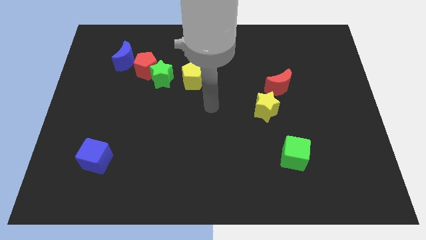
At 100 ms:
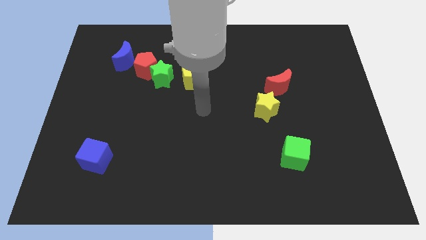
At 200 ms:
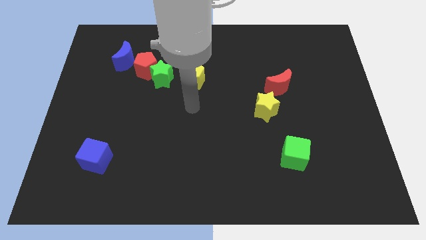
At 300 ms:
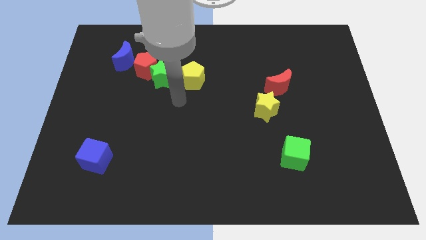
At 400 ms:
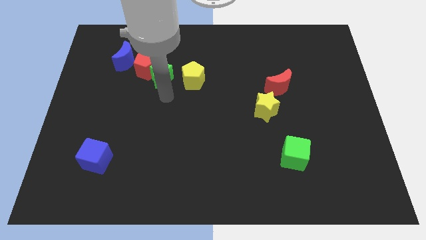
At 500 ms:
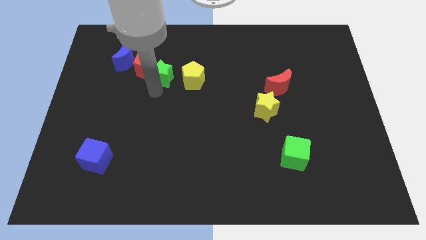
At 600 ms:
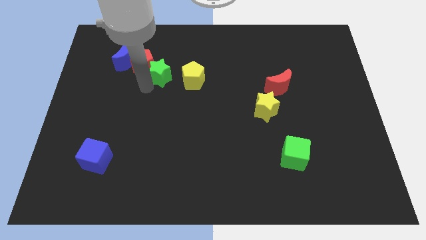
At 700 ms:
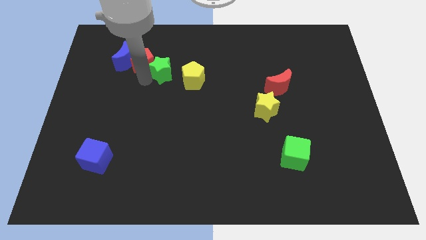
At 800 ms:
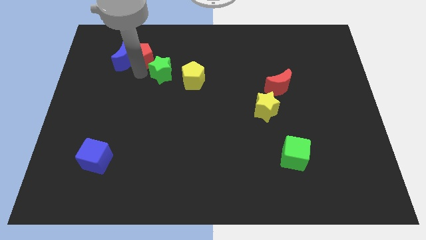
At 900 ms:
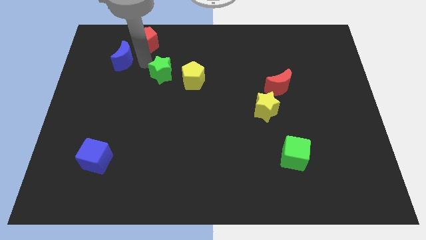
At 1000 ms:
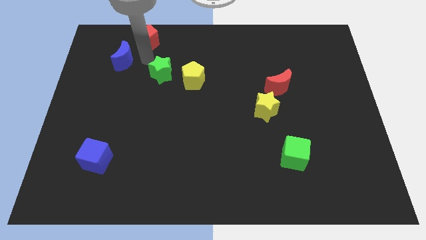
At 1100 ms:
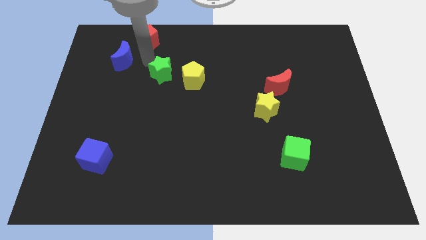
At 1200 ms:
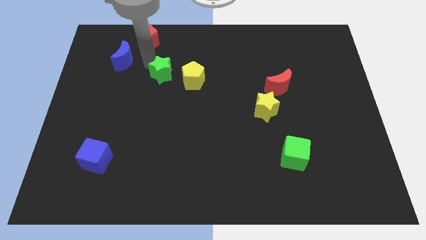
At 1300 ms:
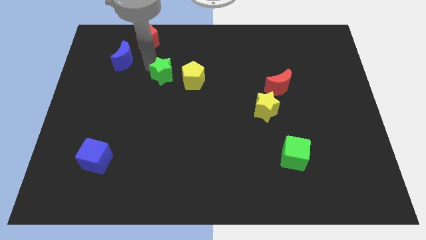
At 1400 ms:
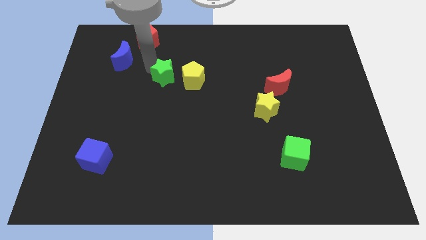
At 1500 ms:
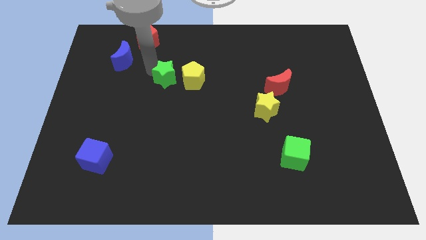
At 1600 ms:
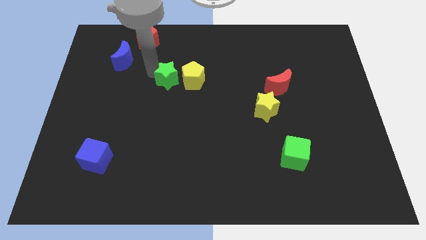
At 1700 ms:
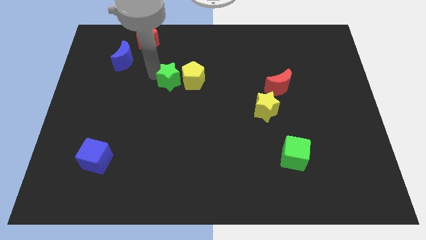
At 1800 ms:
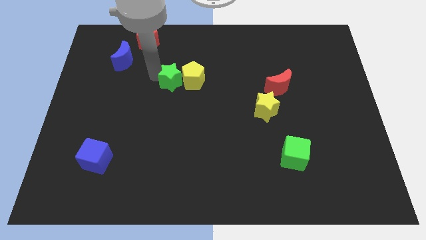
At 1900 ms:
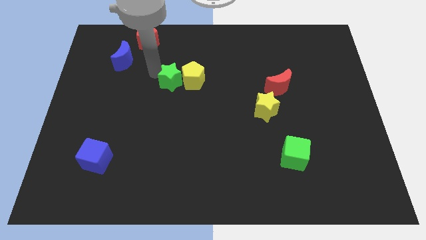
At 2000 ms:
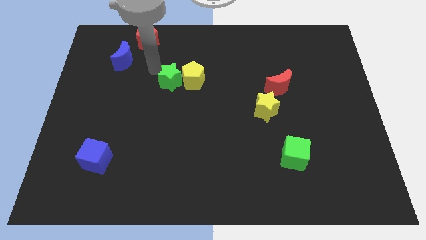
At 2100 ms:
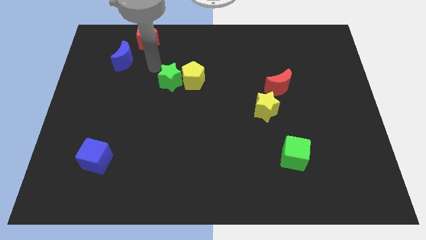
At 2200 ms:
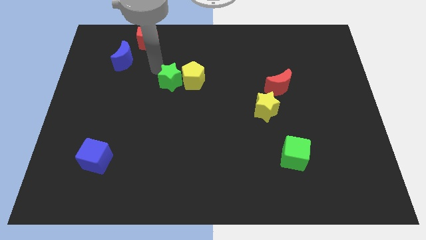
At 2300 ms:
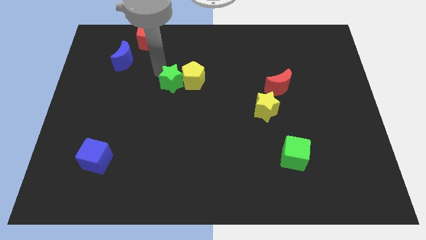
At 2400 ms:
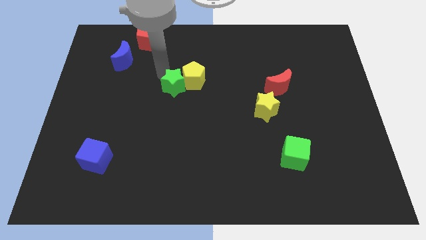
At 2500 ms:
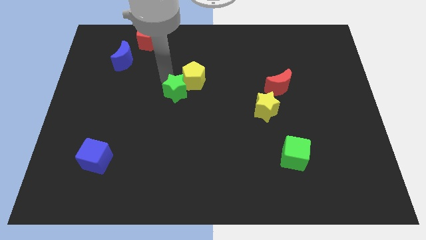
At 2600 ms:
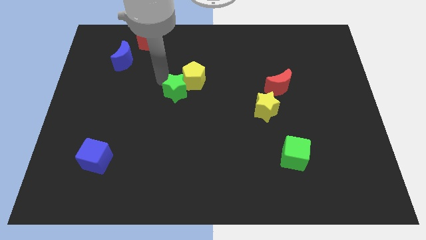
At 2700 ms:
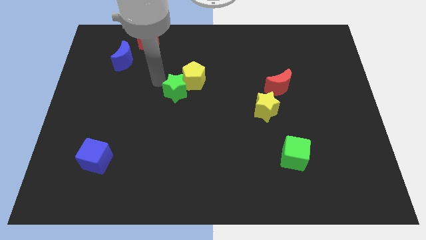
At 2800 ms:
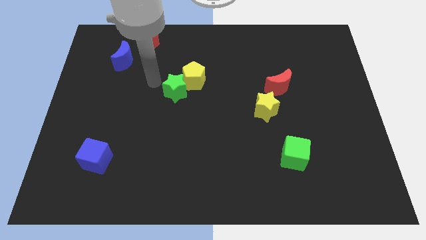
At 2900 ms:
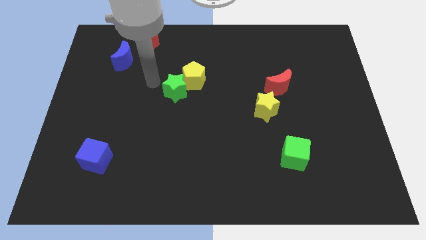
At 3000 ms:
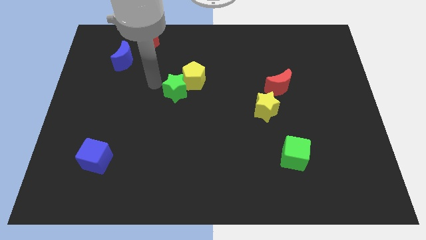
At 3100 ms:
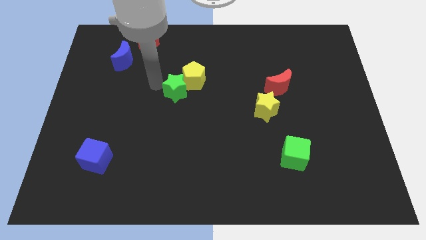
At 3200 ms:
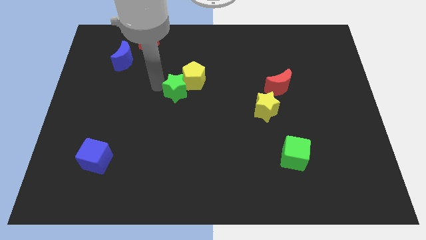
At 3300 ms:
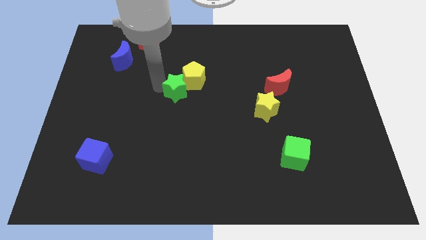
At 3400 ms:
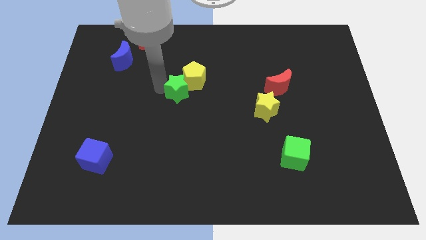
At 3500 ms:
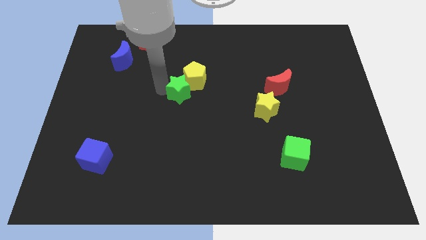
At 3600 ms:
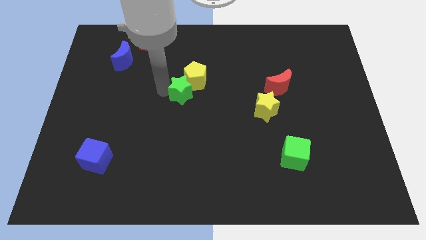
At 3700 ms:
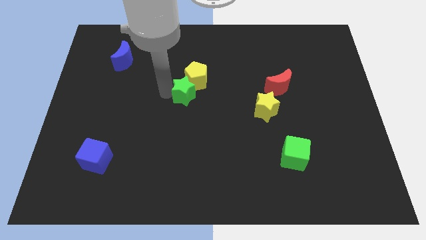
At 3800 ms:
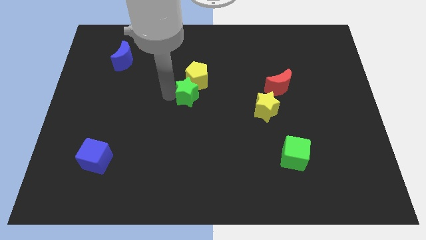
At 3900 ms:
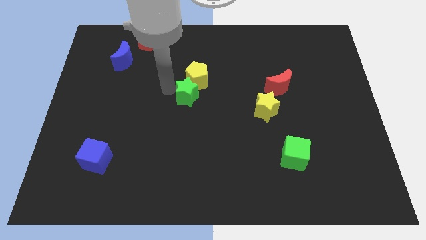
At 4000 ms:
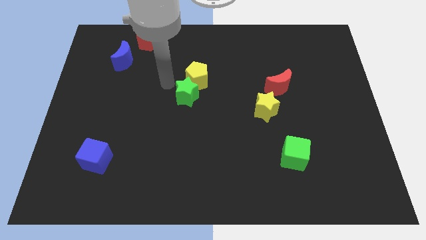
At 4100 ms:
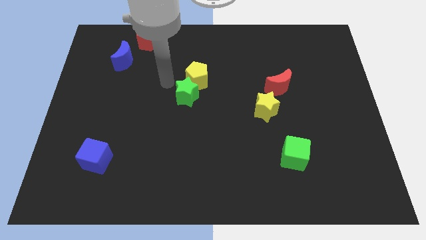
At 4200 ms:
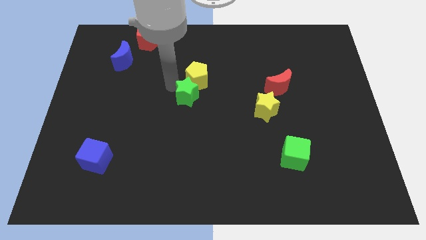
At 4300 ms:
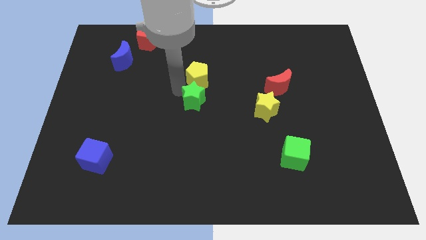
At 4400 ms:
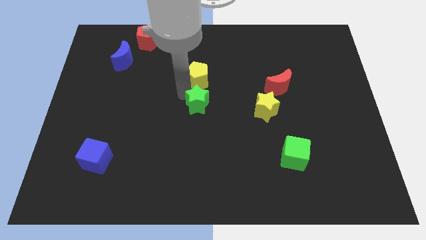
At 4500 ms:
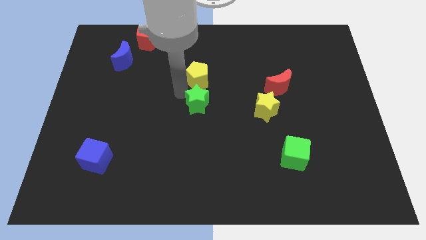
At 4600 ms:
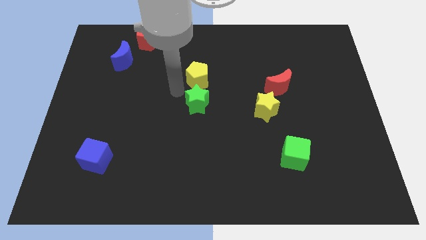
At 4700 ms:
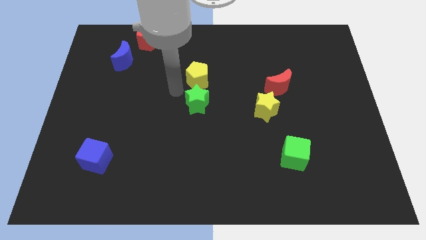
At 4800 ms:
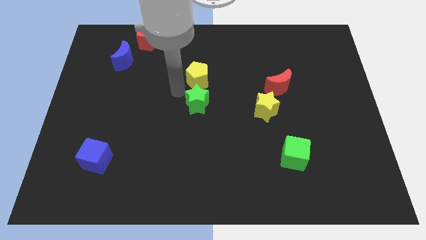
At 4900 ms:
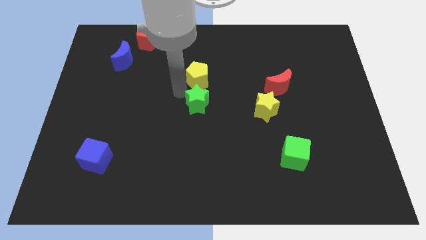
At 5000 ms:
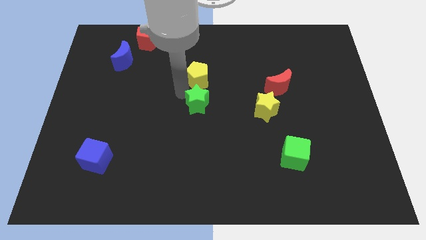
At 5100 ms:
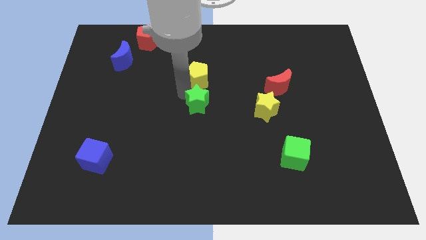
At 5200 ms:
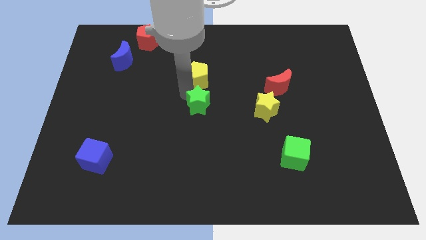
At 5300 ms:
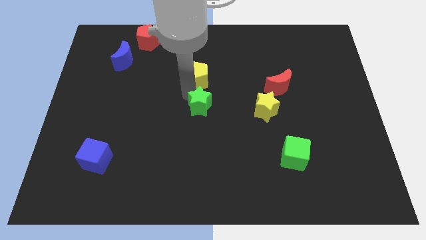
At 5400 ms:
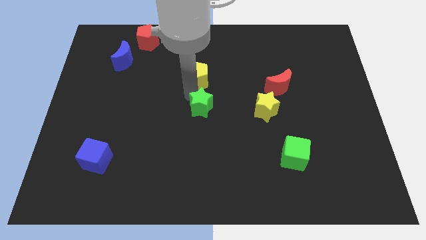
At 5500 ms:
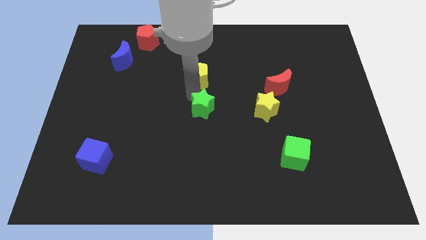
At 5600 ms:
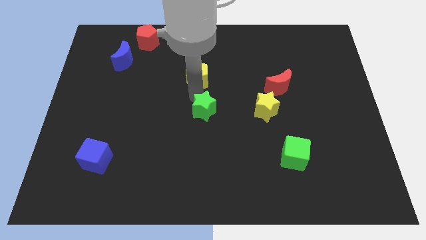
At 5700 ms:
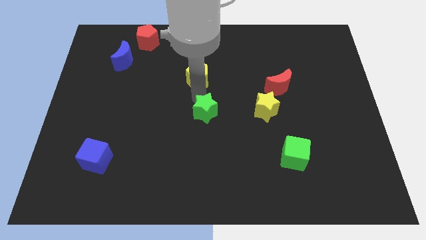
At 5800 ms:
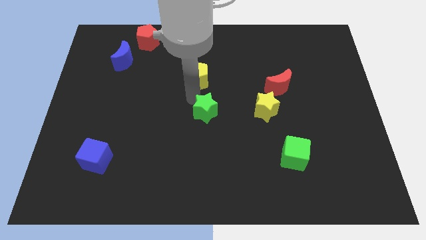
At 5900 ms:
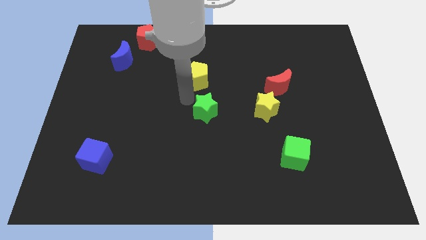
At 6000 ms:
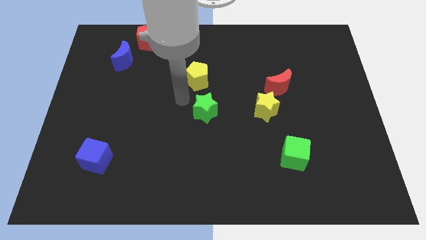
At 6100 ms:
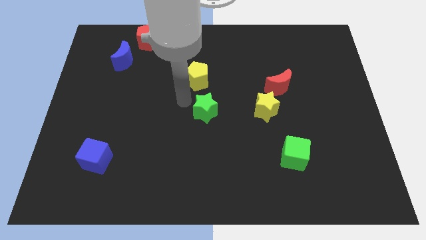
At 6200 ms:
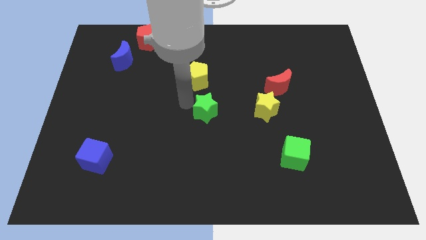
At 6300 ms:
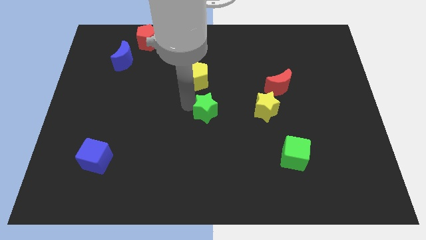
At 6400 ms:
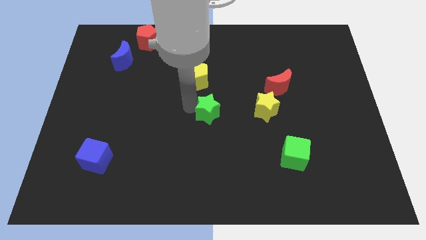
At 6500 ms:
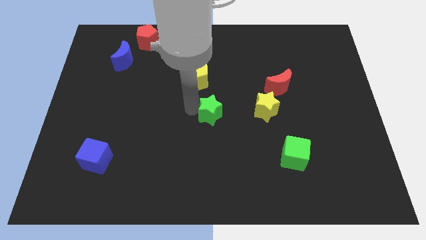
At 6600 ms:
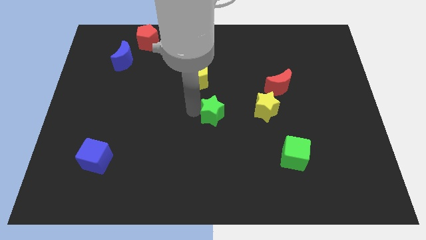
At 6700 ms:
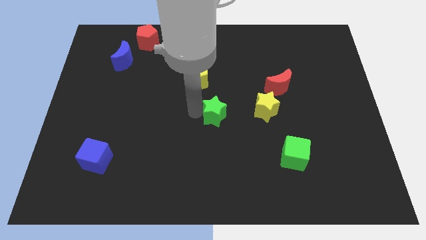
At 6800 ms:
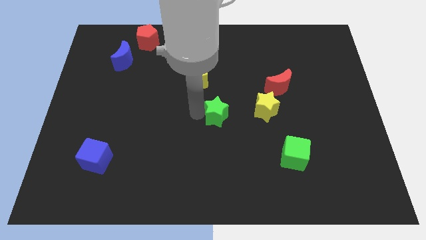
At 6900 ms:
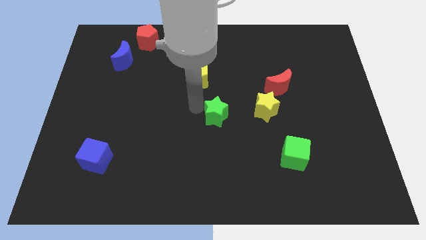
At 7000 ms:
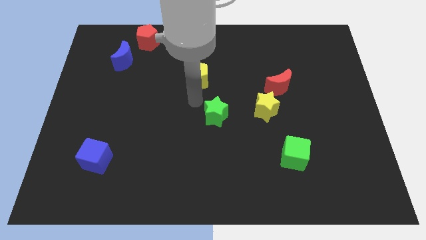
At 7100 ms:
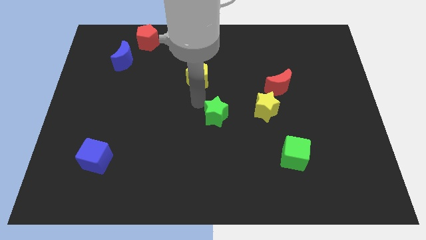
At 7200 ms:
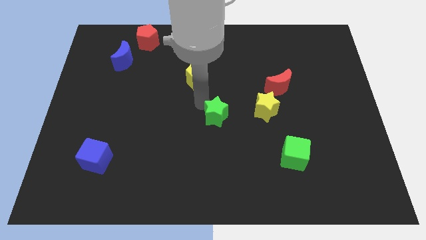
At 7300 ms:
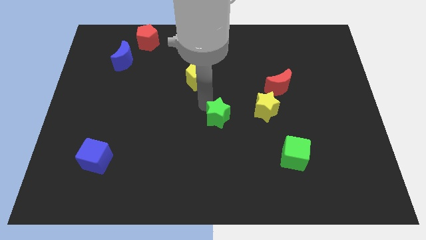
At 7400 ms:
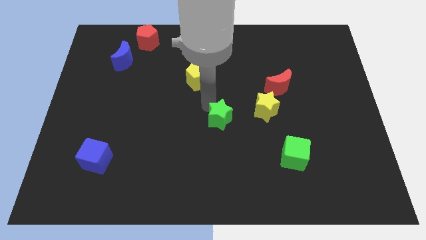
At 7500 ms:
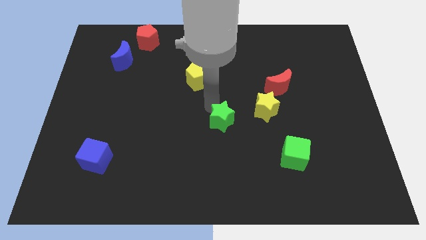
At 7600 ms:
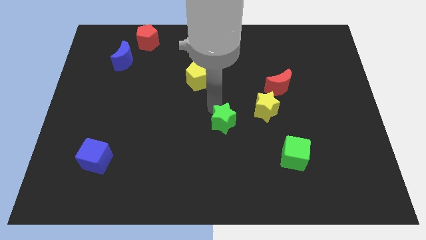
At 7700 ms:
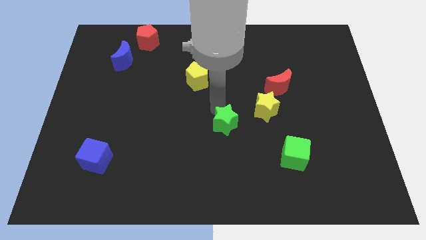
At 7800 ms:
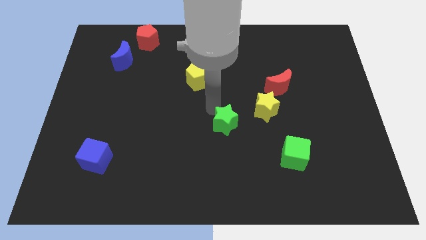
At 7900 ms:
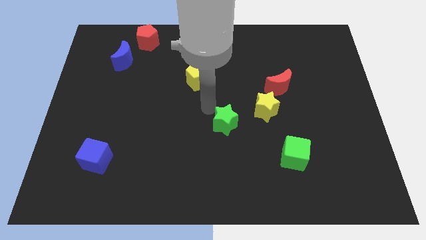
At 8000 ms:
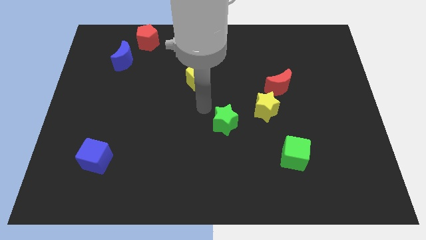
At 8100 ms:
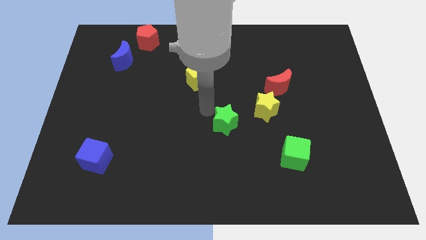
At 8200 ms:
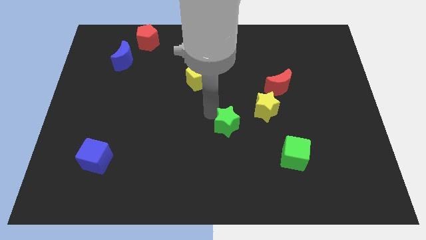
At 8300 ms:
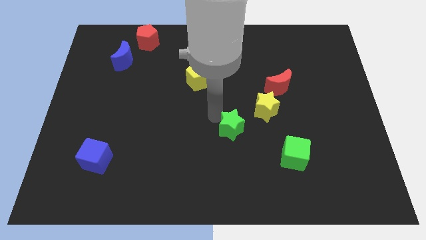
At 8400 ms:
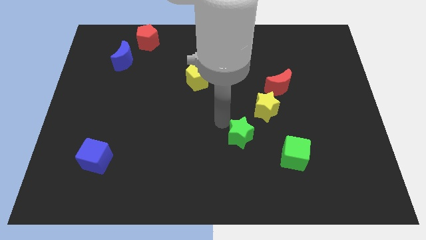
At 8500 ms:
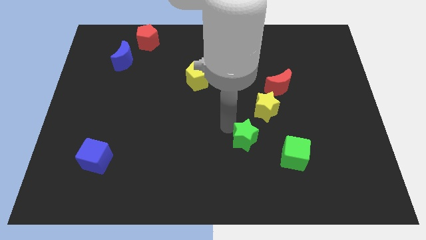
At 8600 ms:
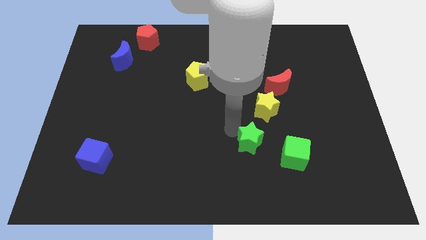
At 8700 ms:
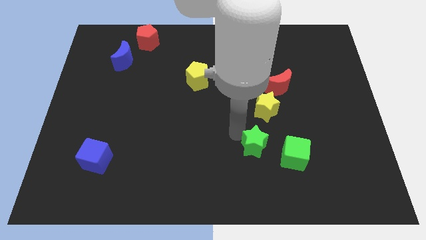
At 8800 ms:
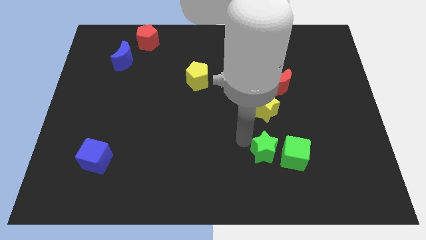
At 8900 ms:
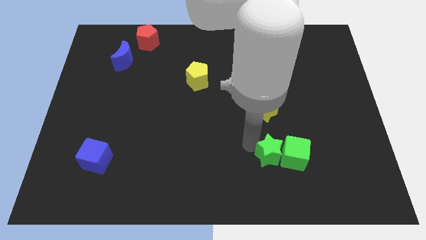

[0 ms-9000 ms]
slide the green star next to the green cube
